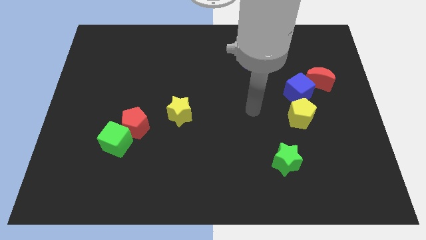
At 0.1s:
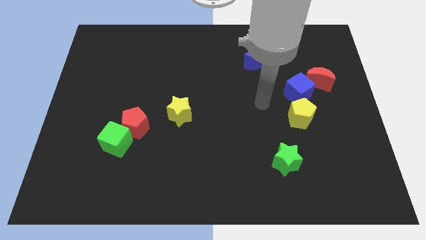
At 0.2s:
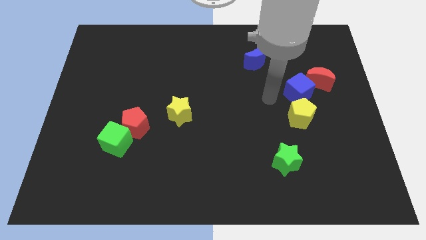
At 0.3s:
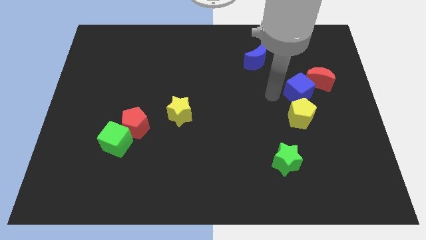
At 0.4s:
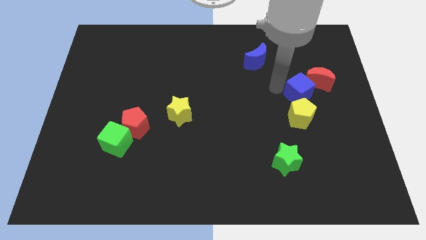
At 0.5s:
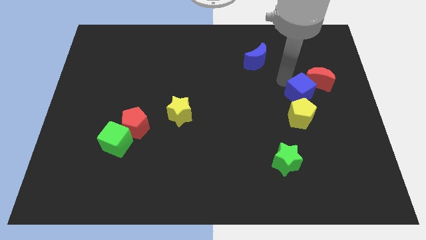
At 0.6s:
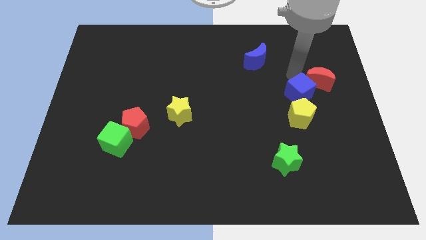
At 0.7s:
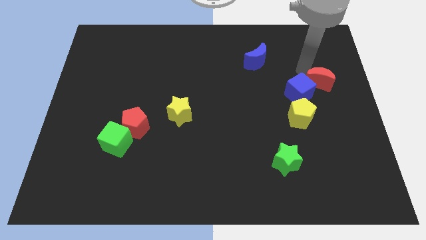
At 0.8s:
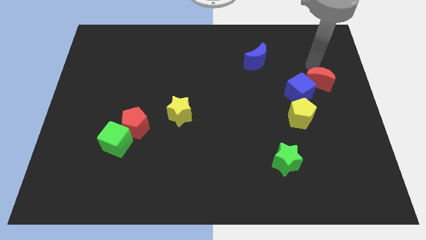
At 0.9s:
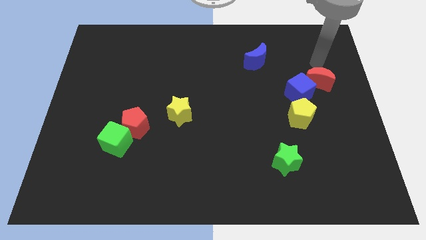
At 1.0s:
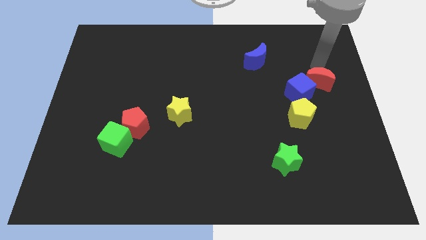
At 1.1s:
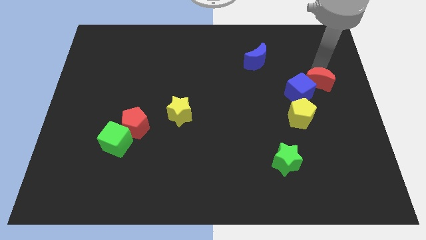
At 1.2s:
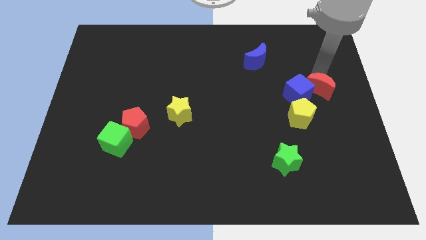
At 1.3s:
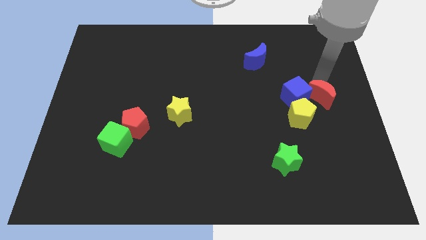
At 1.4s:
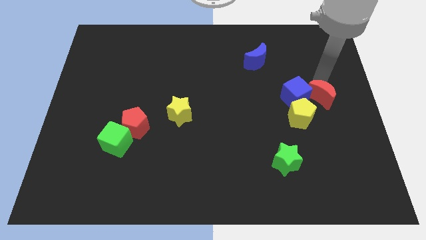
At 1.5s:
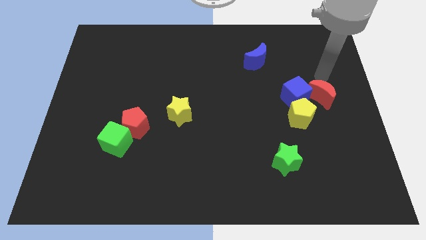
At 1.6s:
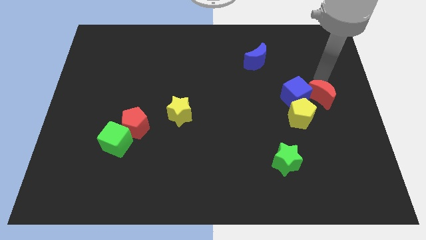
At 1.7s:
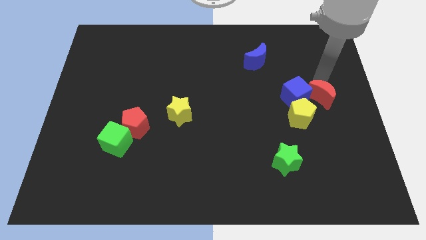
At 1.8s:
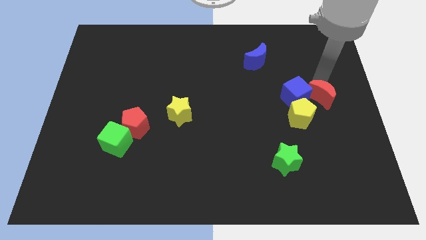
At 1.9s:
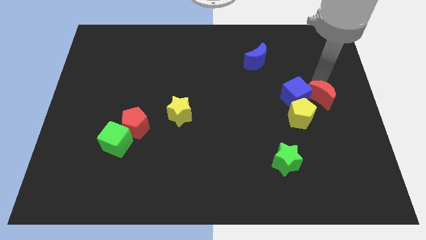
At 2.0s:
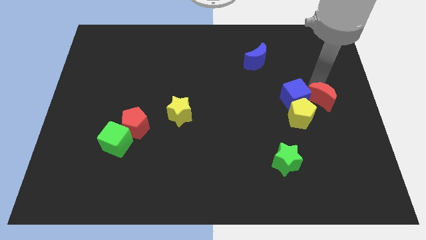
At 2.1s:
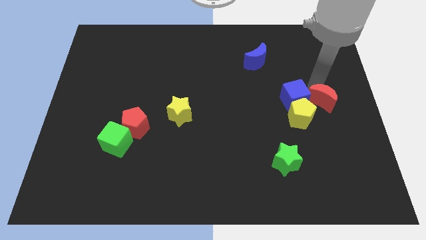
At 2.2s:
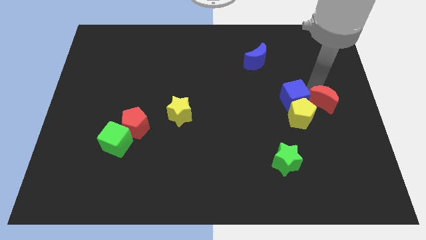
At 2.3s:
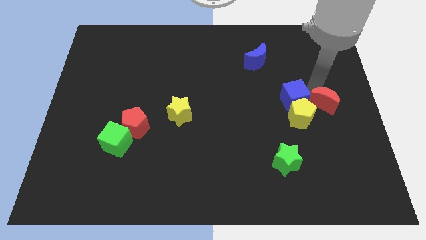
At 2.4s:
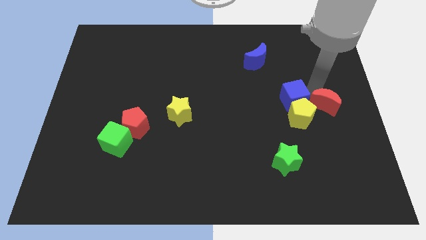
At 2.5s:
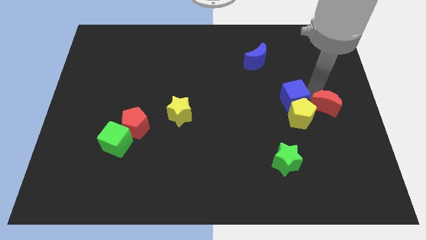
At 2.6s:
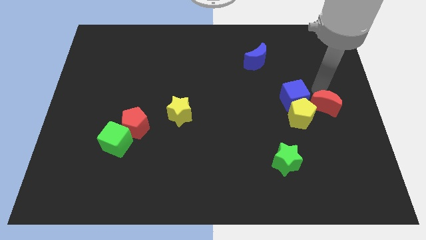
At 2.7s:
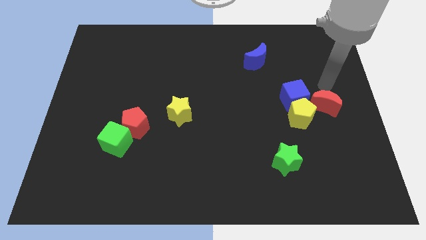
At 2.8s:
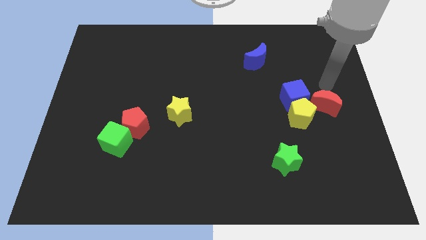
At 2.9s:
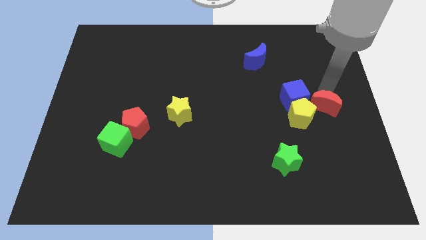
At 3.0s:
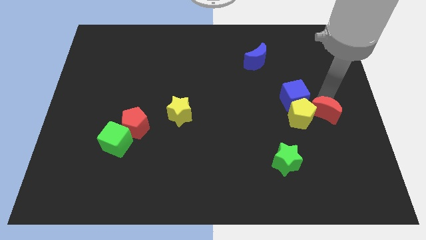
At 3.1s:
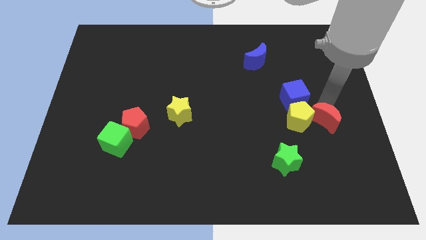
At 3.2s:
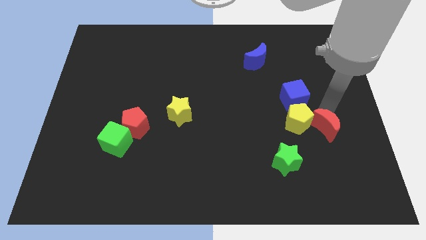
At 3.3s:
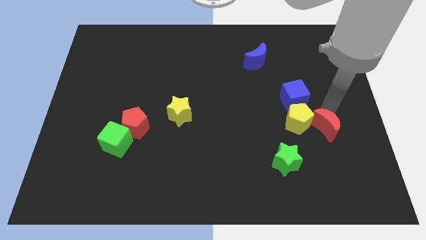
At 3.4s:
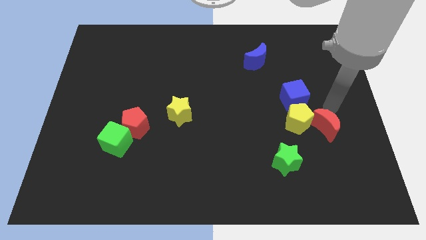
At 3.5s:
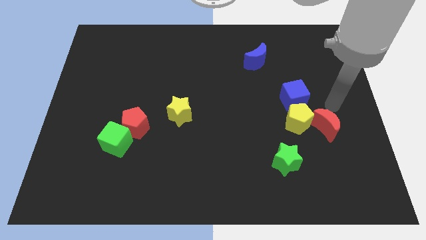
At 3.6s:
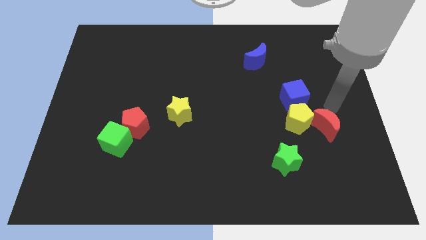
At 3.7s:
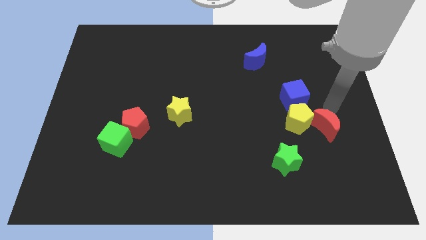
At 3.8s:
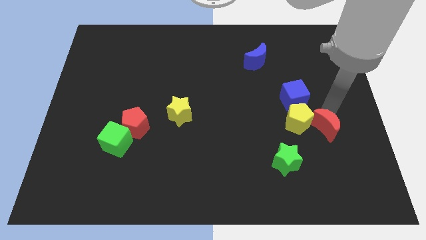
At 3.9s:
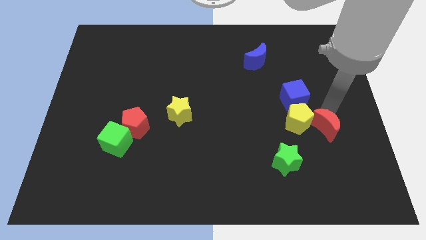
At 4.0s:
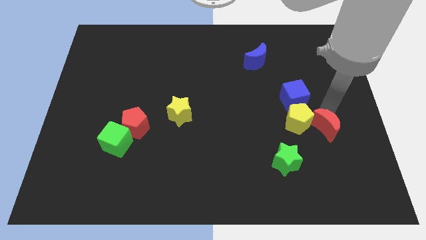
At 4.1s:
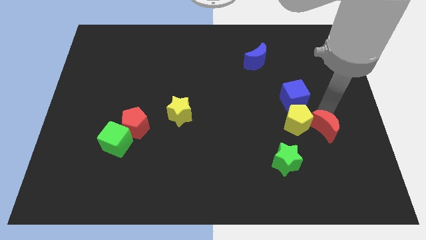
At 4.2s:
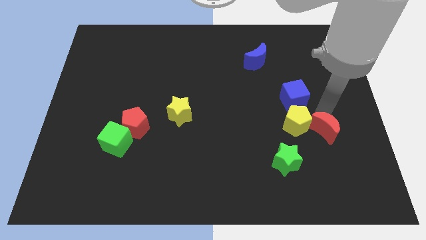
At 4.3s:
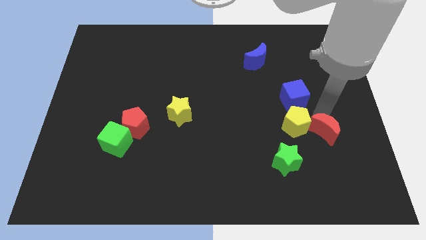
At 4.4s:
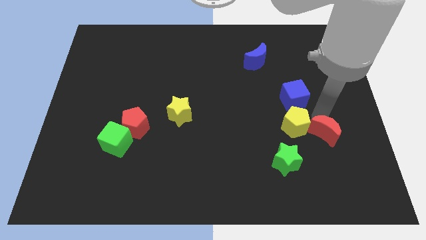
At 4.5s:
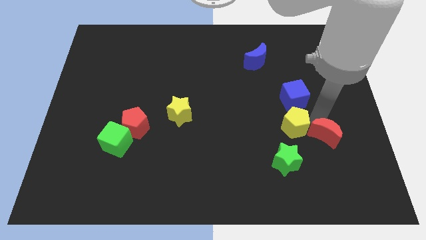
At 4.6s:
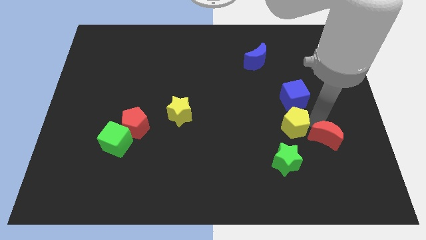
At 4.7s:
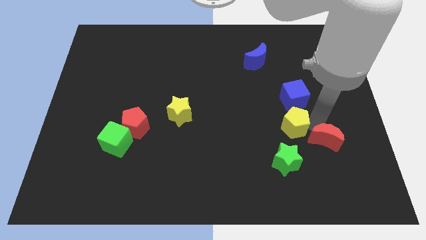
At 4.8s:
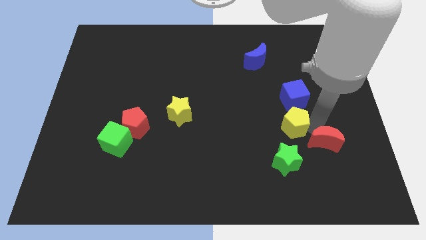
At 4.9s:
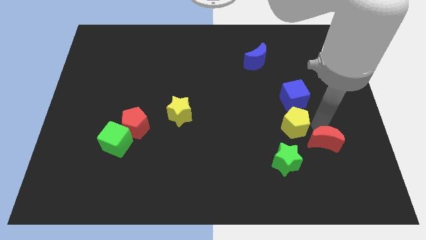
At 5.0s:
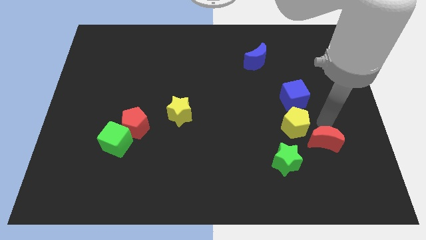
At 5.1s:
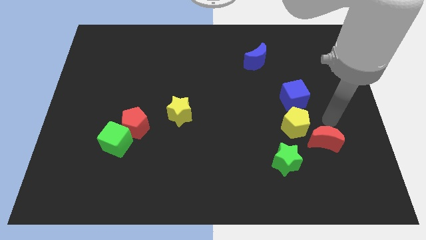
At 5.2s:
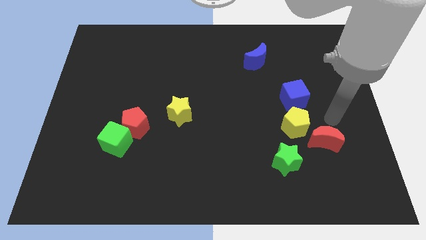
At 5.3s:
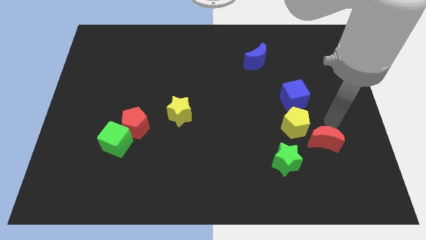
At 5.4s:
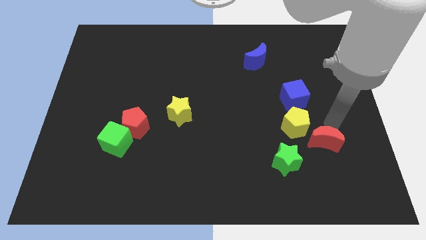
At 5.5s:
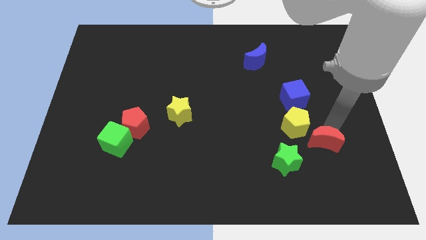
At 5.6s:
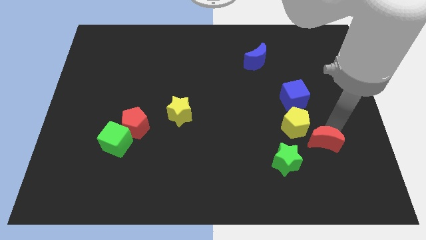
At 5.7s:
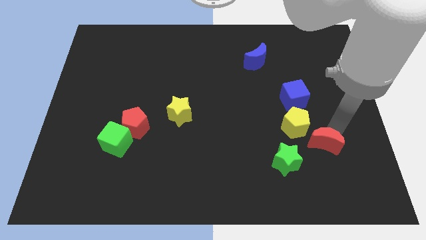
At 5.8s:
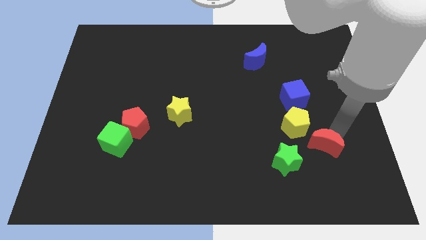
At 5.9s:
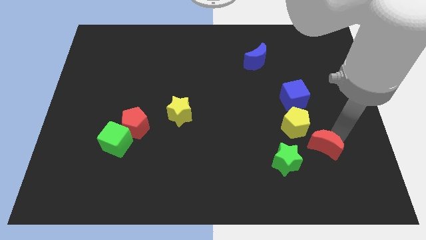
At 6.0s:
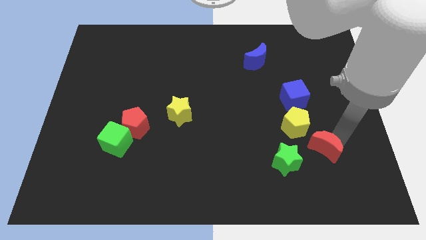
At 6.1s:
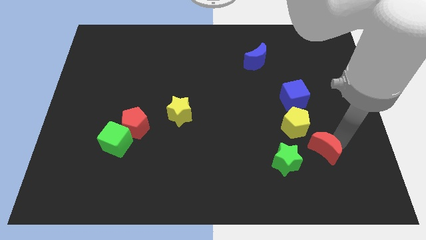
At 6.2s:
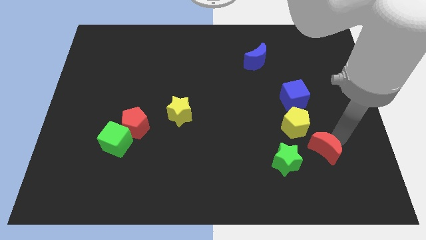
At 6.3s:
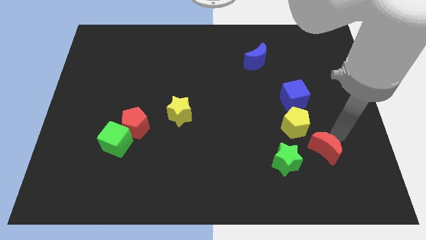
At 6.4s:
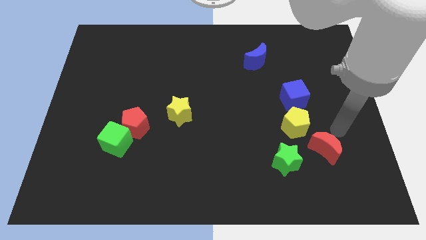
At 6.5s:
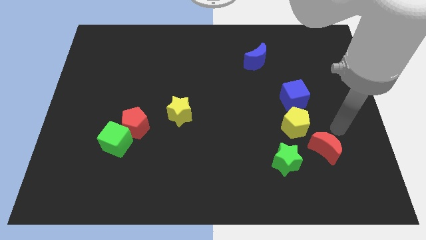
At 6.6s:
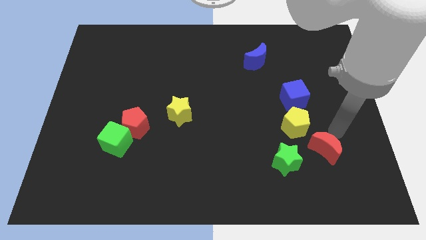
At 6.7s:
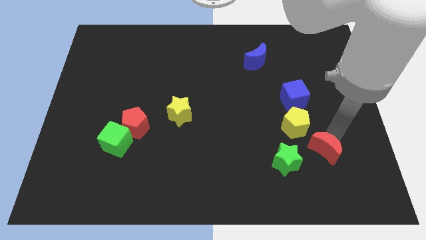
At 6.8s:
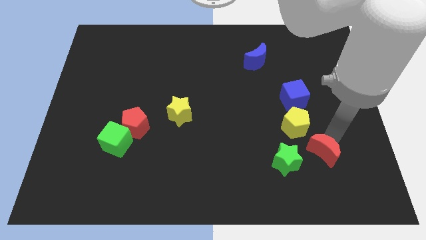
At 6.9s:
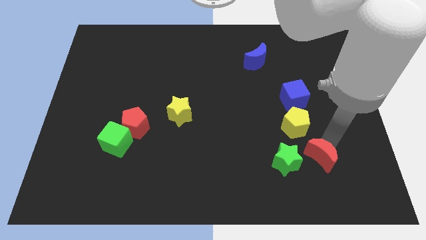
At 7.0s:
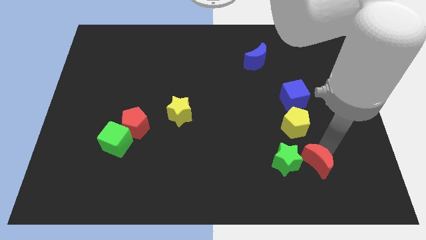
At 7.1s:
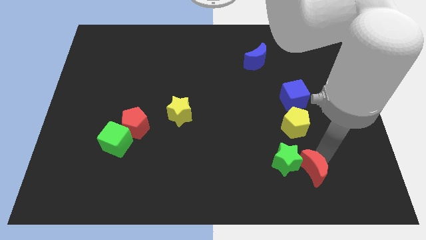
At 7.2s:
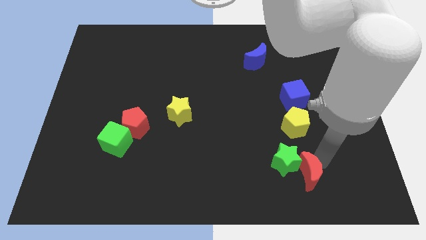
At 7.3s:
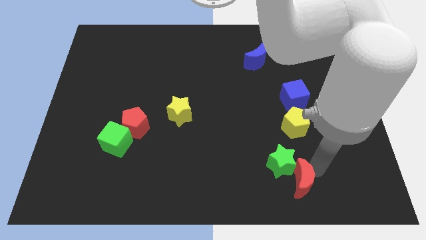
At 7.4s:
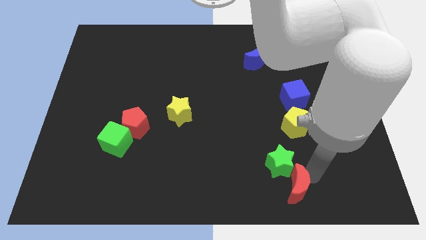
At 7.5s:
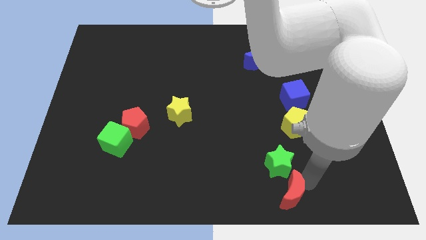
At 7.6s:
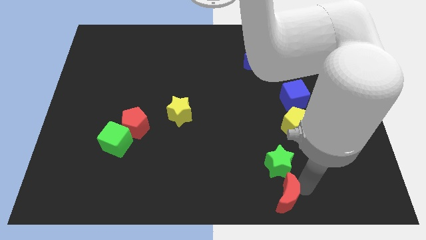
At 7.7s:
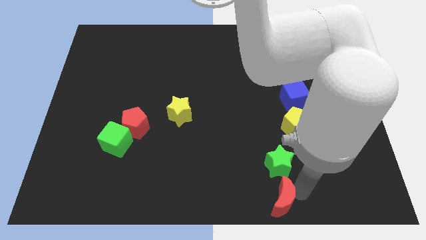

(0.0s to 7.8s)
push the red moon to the bottom side
